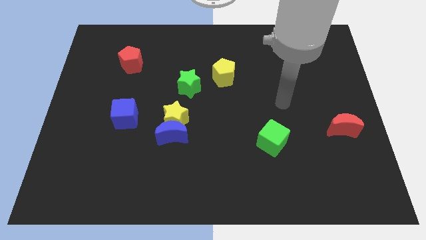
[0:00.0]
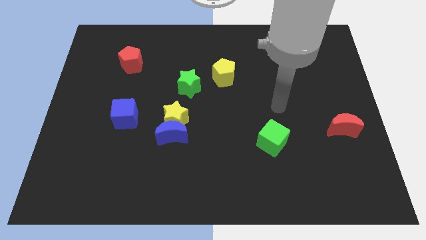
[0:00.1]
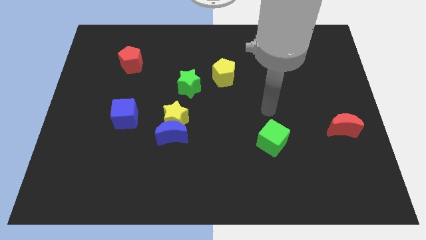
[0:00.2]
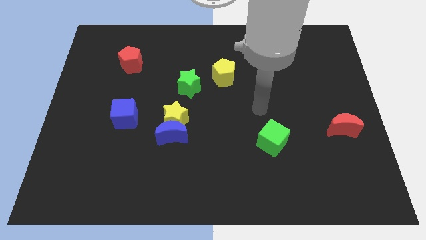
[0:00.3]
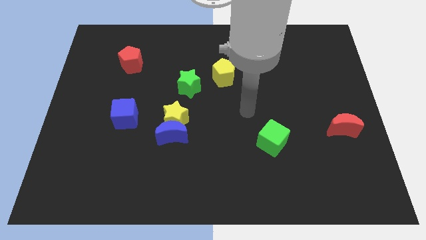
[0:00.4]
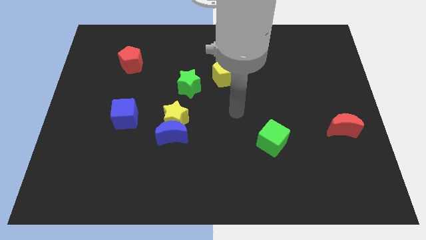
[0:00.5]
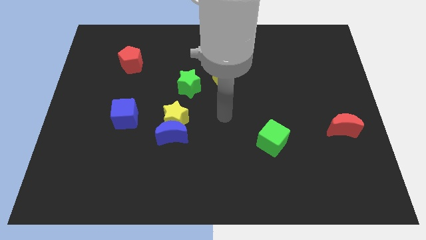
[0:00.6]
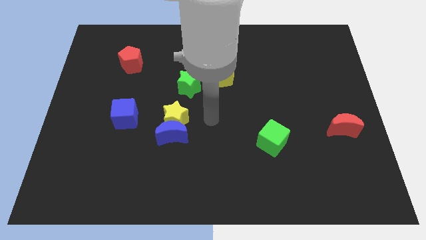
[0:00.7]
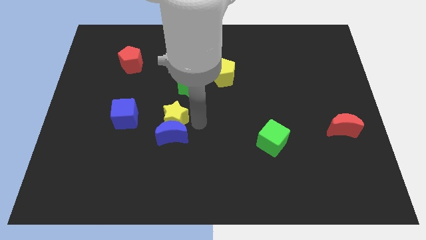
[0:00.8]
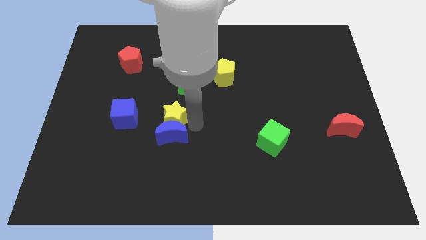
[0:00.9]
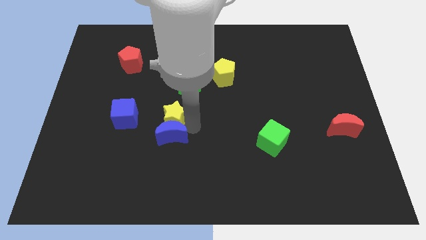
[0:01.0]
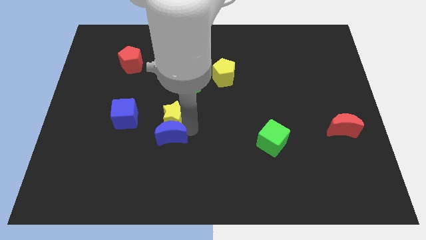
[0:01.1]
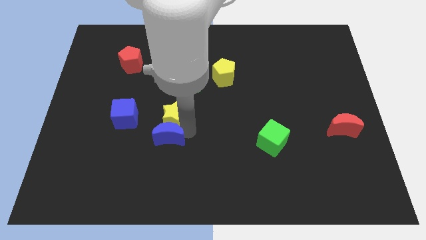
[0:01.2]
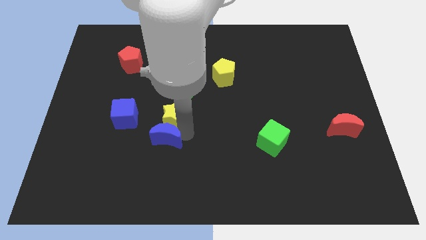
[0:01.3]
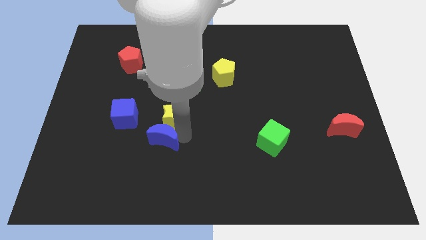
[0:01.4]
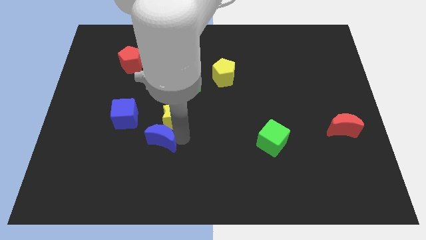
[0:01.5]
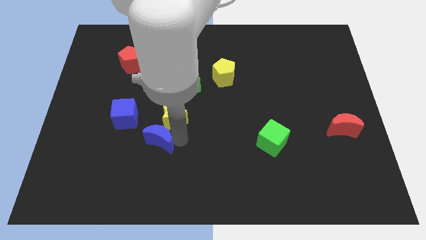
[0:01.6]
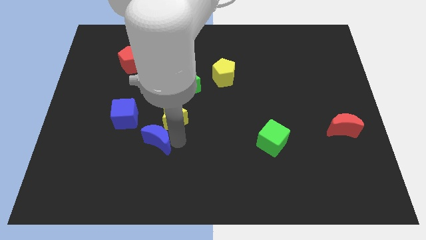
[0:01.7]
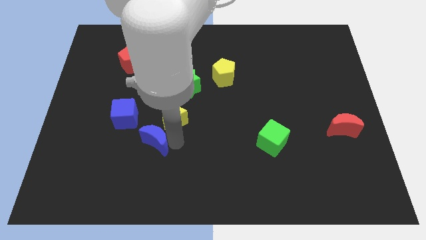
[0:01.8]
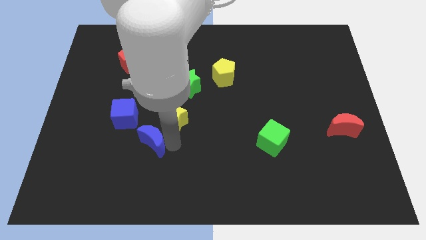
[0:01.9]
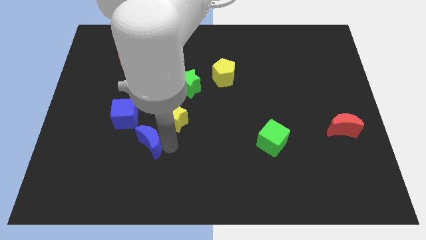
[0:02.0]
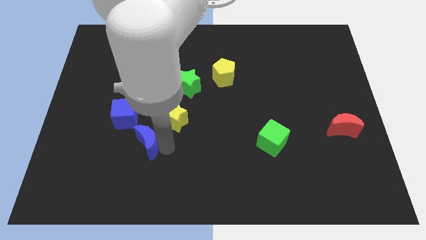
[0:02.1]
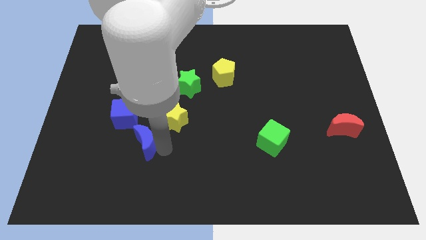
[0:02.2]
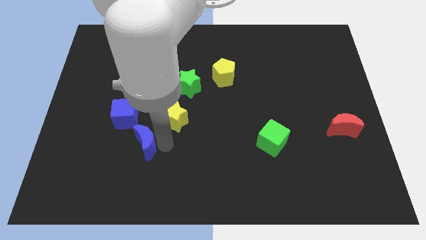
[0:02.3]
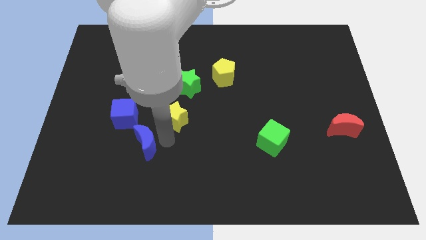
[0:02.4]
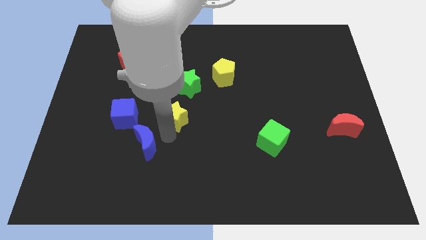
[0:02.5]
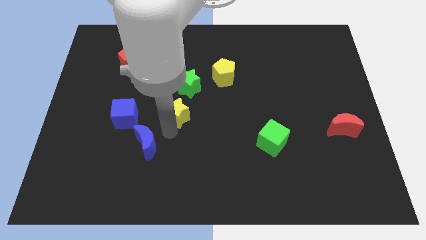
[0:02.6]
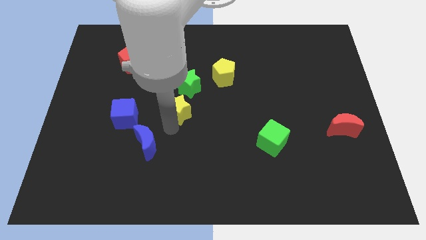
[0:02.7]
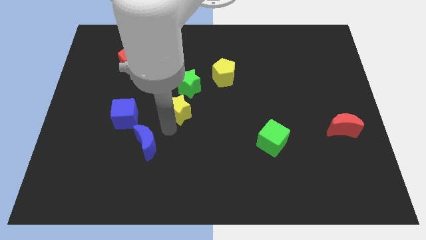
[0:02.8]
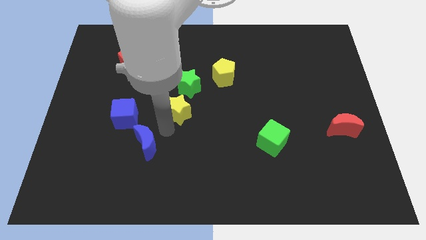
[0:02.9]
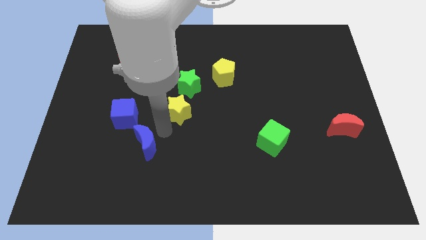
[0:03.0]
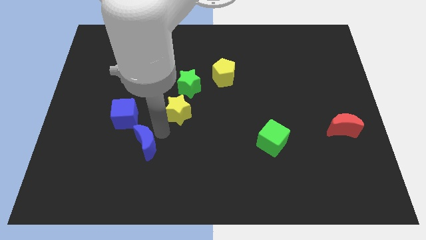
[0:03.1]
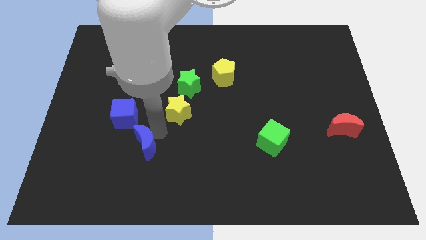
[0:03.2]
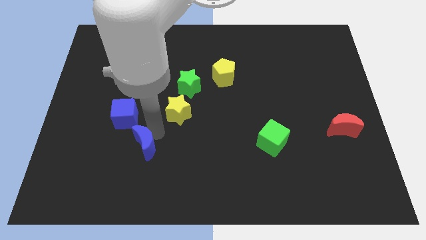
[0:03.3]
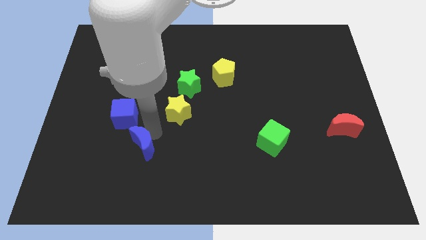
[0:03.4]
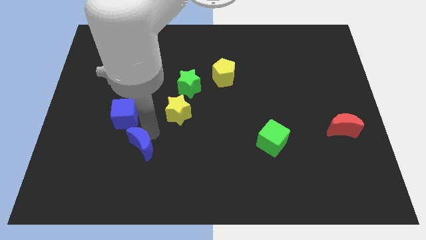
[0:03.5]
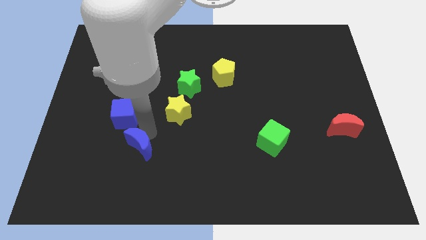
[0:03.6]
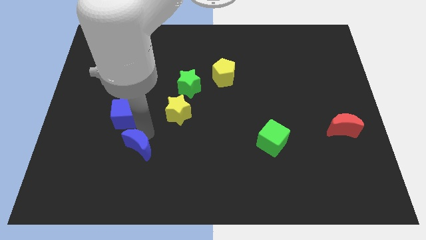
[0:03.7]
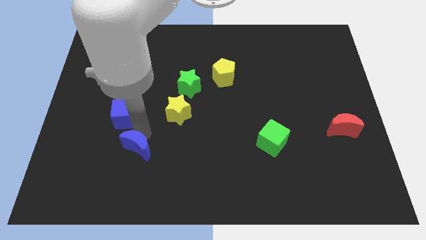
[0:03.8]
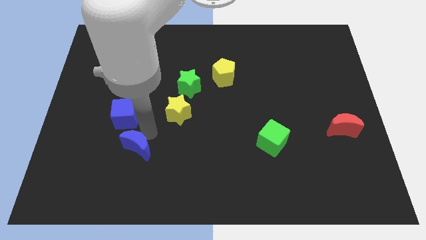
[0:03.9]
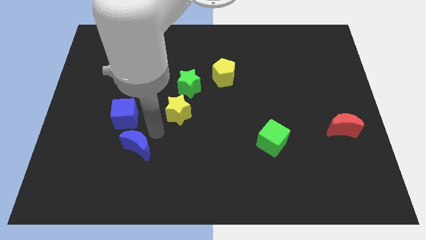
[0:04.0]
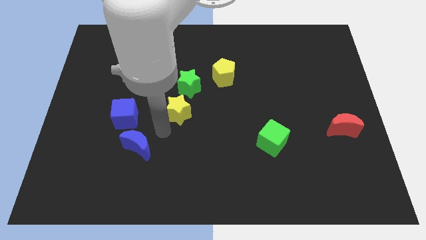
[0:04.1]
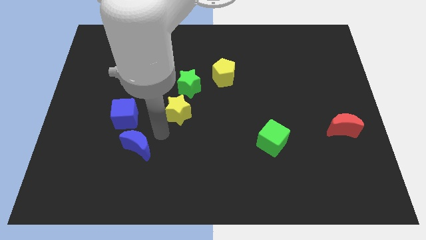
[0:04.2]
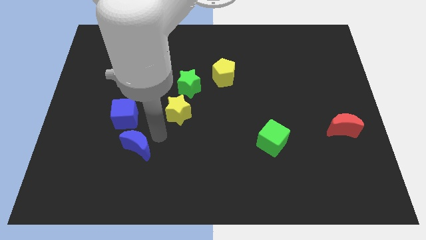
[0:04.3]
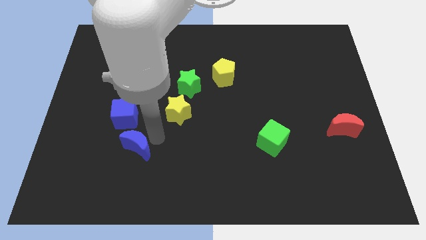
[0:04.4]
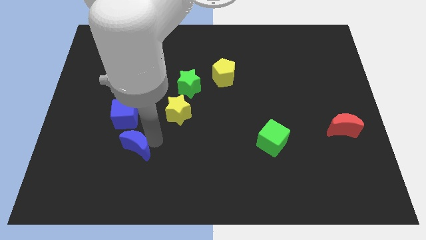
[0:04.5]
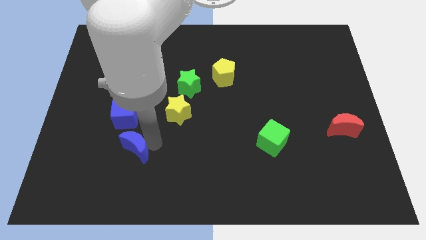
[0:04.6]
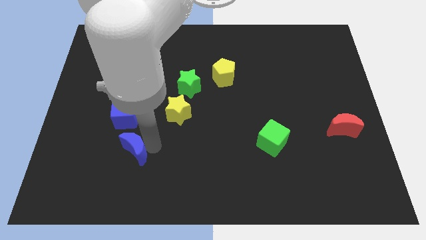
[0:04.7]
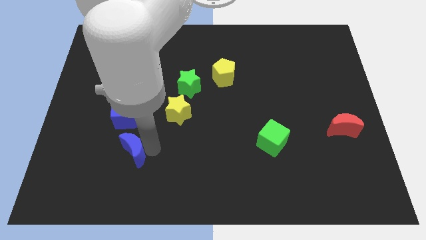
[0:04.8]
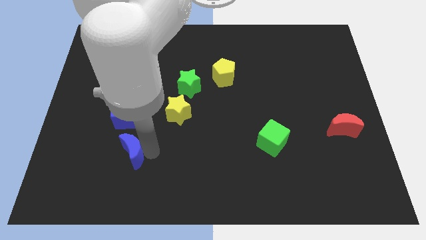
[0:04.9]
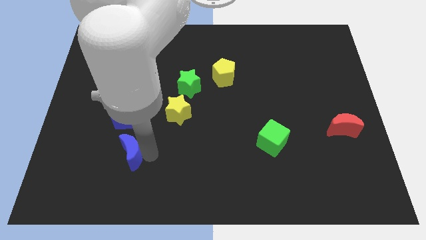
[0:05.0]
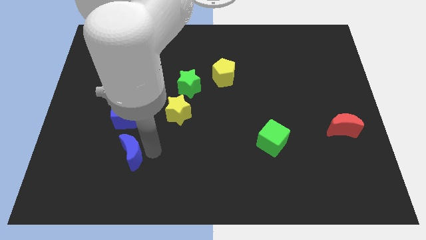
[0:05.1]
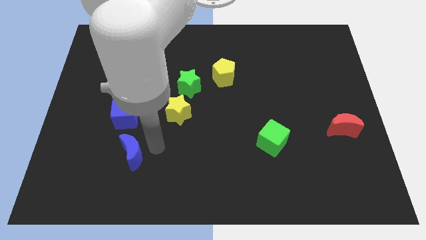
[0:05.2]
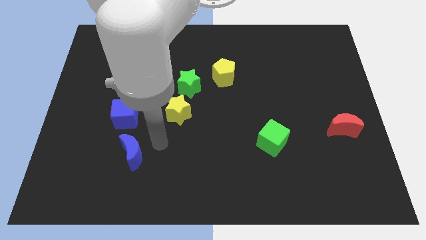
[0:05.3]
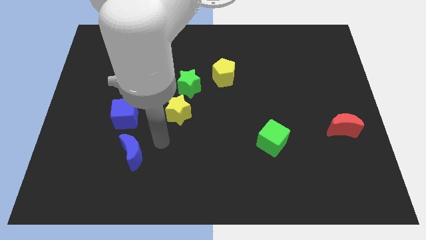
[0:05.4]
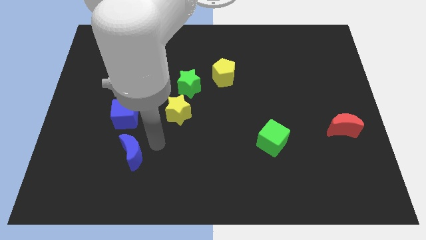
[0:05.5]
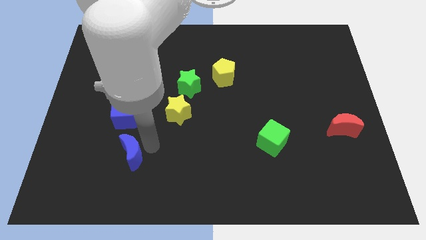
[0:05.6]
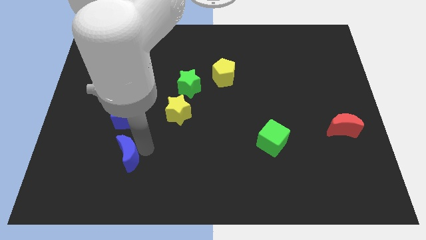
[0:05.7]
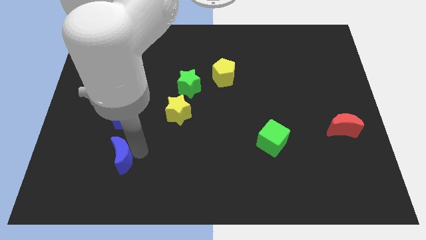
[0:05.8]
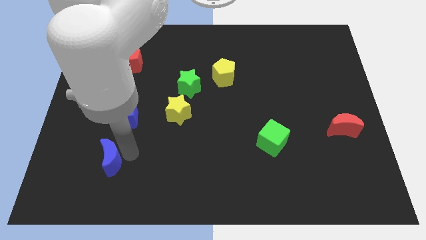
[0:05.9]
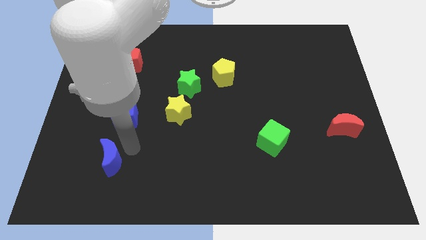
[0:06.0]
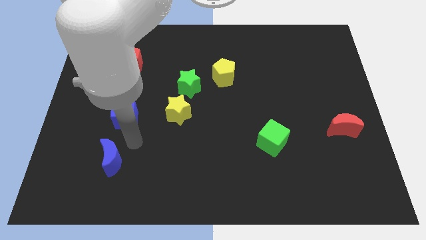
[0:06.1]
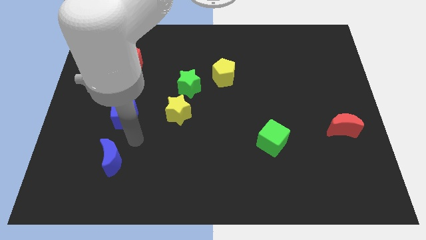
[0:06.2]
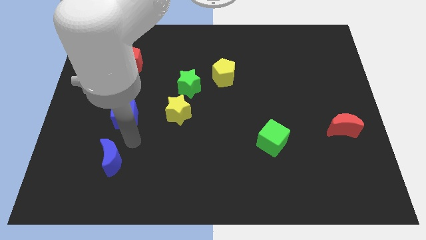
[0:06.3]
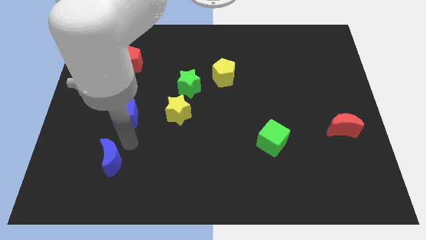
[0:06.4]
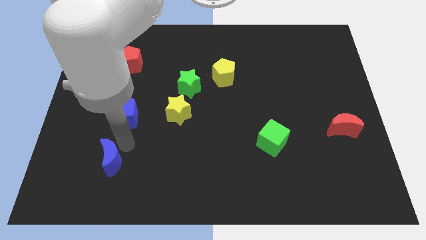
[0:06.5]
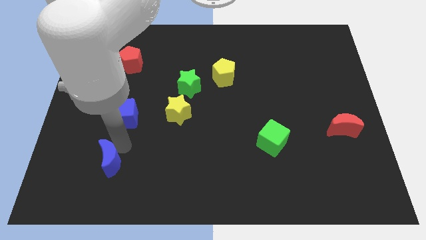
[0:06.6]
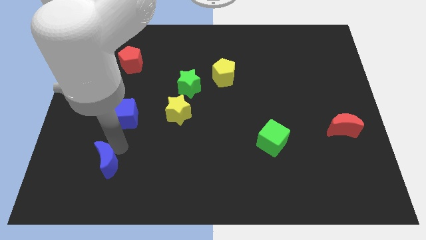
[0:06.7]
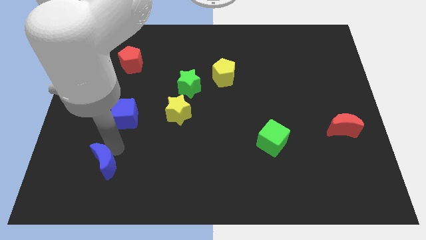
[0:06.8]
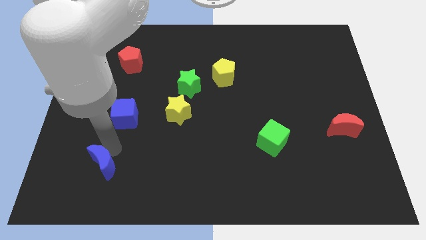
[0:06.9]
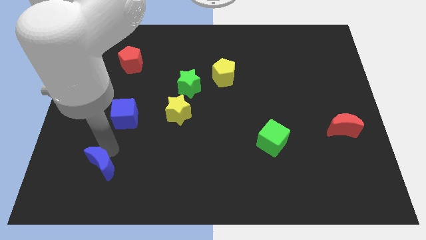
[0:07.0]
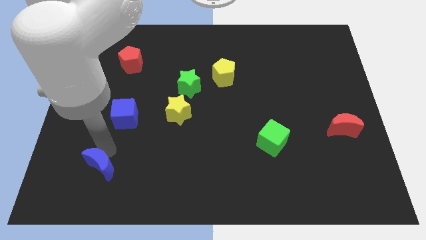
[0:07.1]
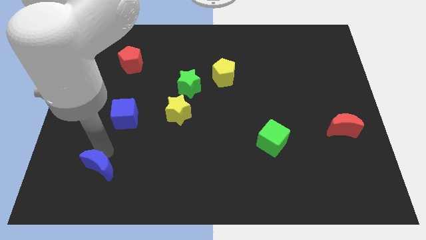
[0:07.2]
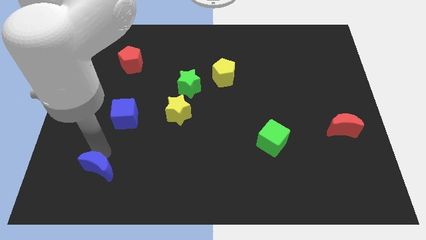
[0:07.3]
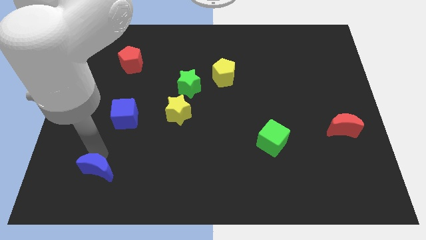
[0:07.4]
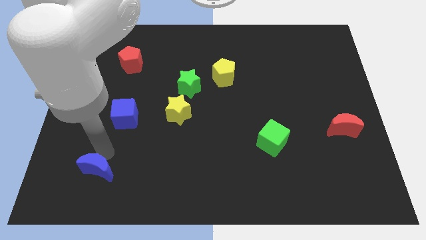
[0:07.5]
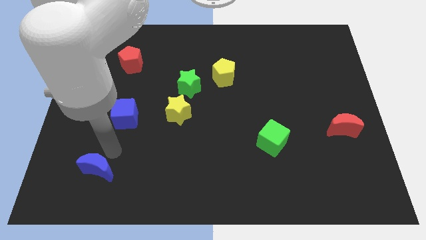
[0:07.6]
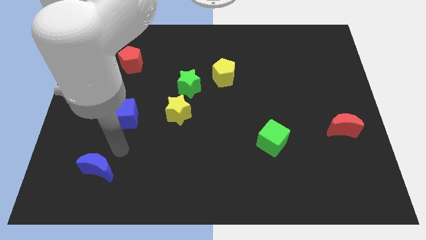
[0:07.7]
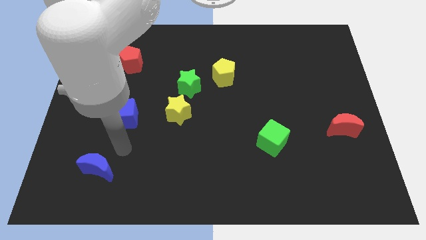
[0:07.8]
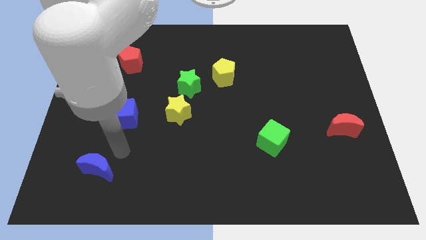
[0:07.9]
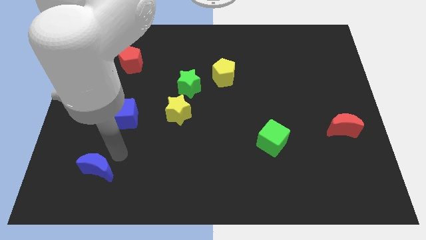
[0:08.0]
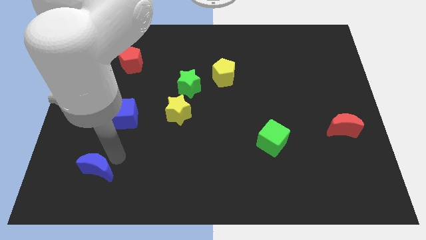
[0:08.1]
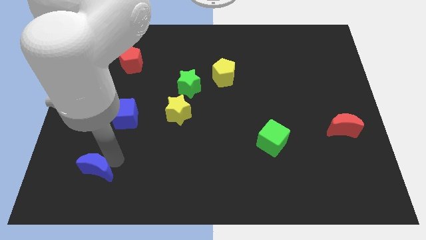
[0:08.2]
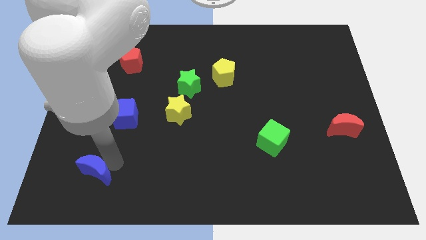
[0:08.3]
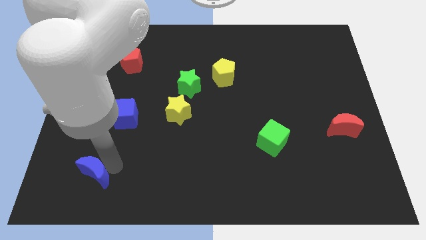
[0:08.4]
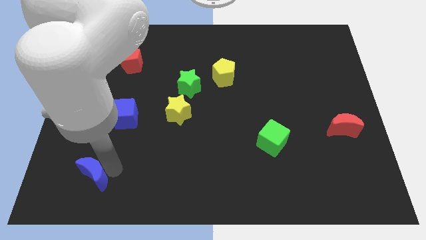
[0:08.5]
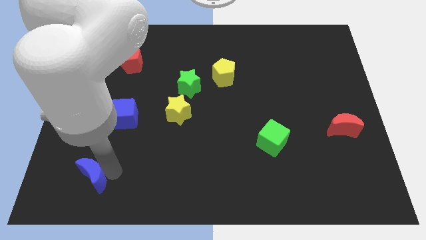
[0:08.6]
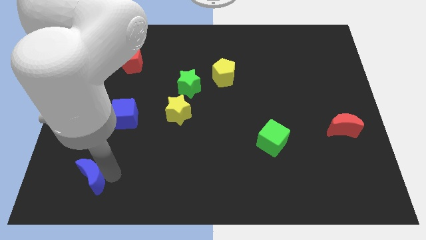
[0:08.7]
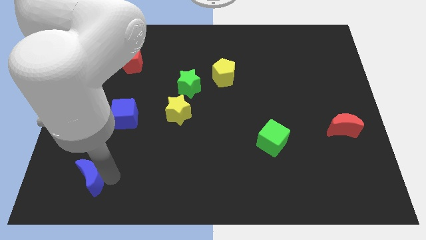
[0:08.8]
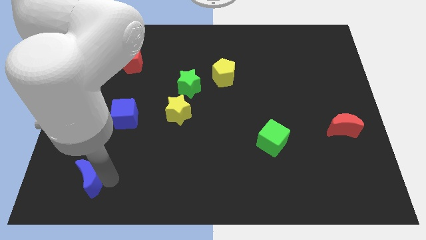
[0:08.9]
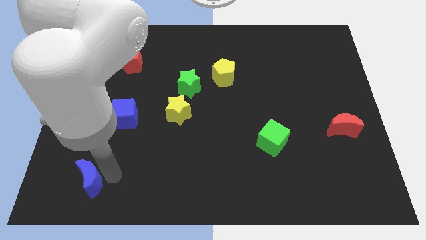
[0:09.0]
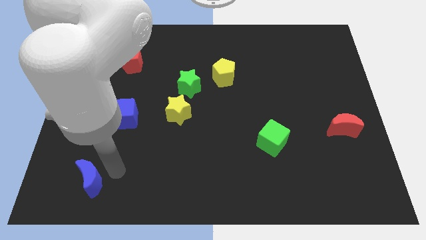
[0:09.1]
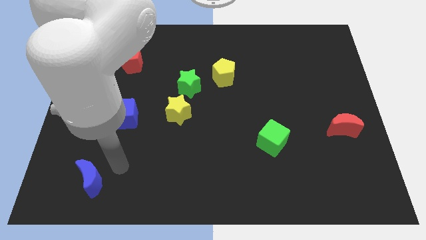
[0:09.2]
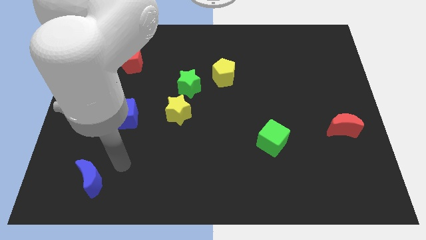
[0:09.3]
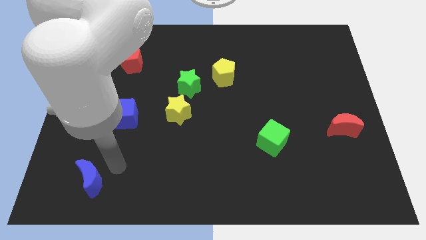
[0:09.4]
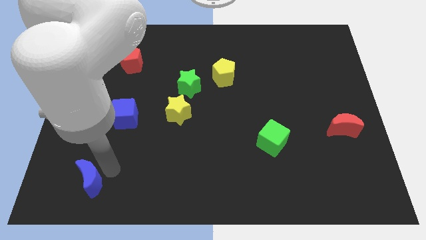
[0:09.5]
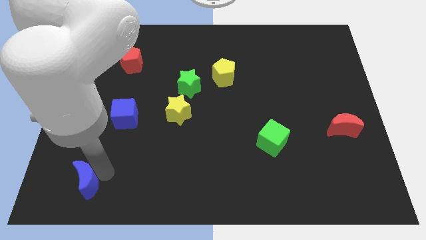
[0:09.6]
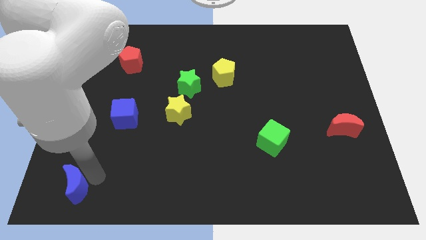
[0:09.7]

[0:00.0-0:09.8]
move the blue moon to the bottom left of the board
